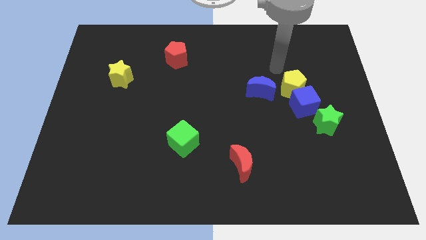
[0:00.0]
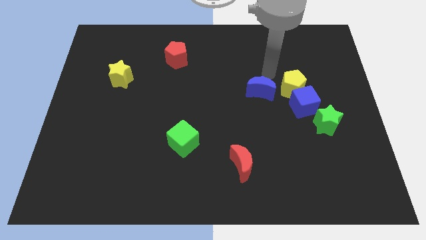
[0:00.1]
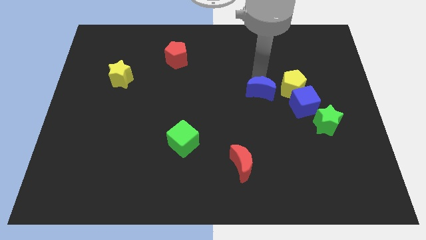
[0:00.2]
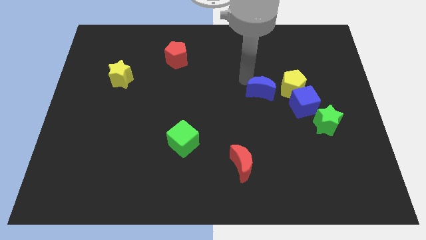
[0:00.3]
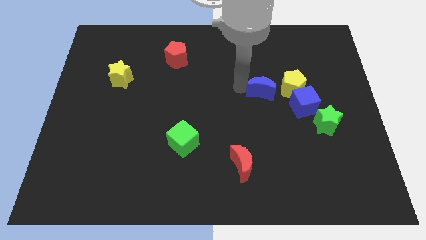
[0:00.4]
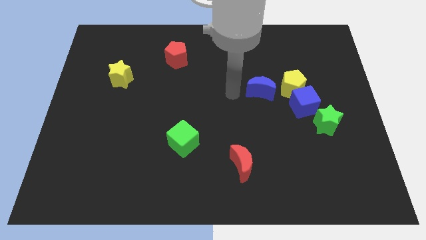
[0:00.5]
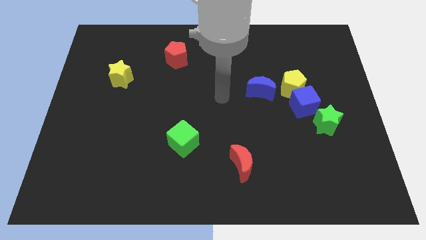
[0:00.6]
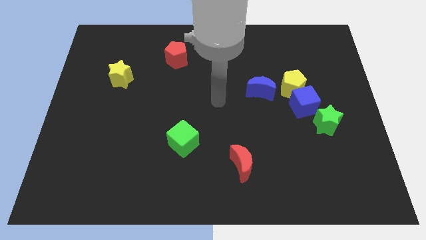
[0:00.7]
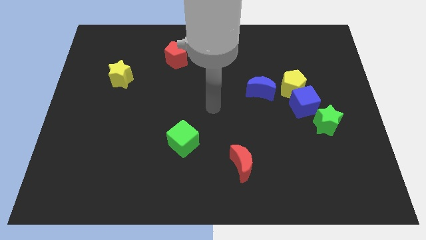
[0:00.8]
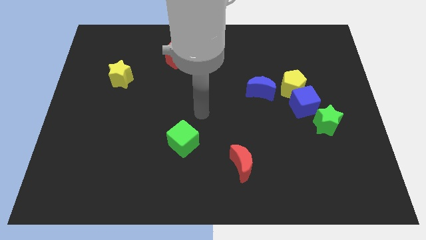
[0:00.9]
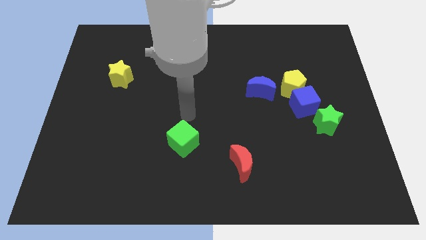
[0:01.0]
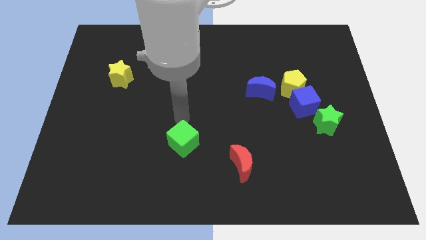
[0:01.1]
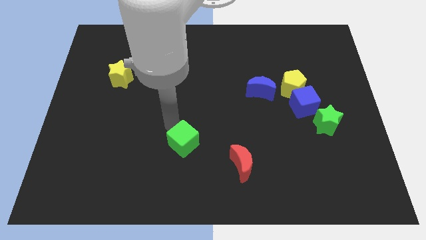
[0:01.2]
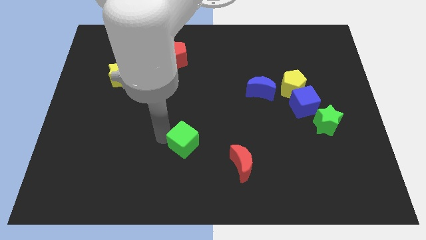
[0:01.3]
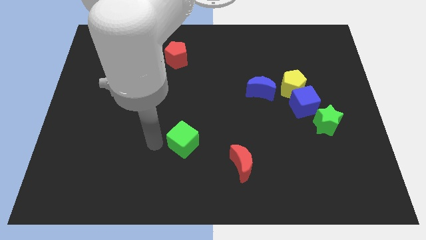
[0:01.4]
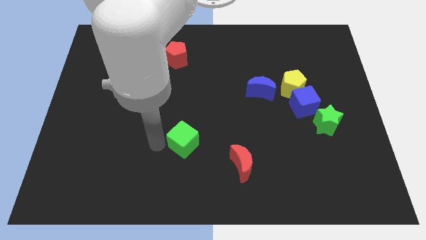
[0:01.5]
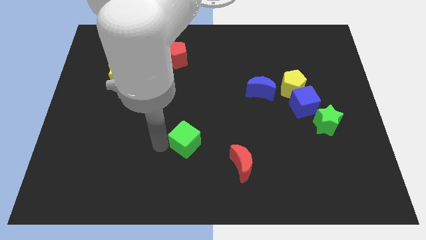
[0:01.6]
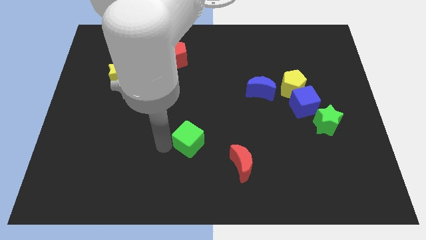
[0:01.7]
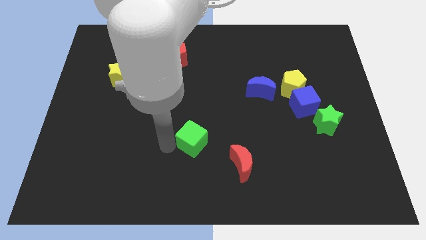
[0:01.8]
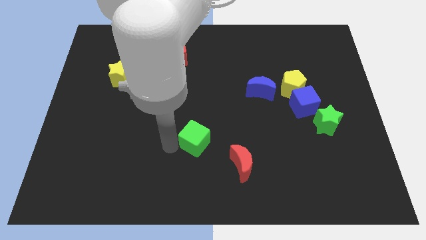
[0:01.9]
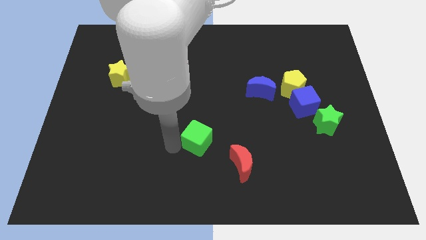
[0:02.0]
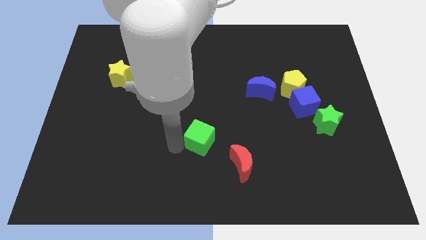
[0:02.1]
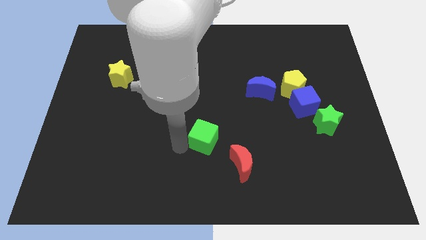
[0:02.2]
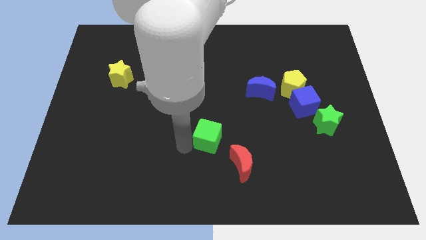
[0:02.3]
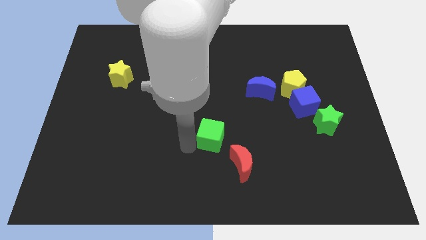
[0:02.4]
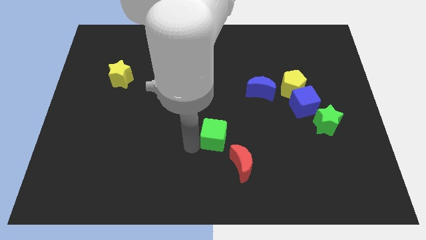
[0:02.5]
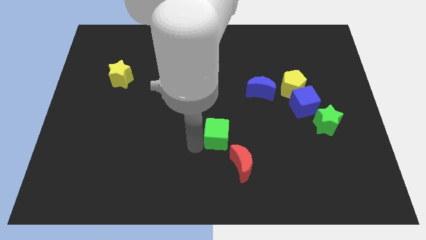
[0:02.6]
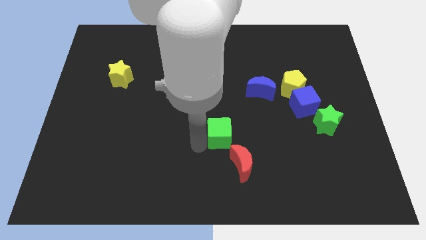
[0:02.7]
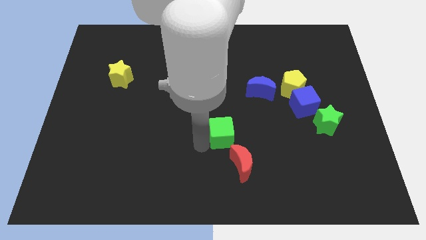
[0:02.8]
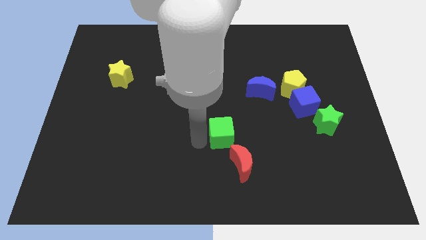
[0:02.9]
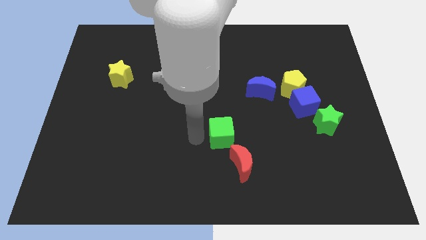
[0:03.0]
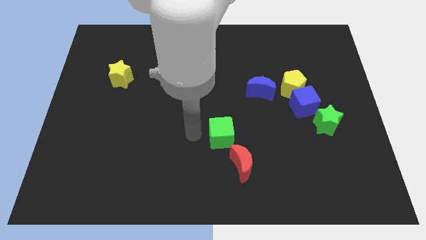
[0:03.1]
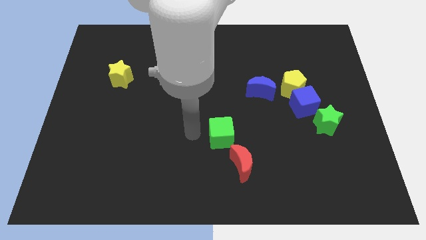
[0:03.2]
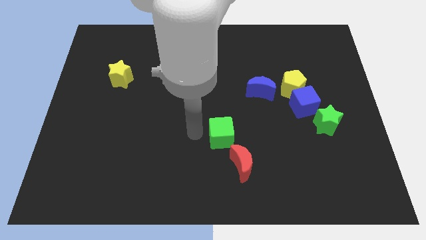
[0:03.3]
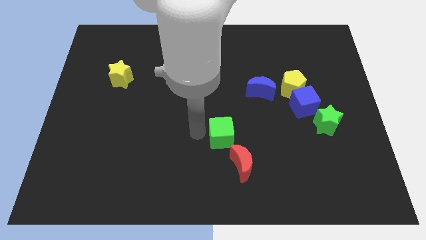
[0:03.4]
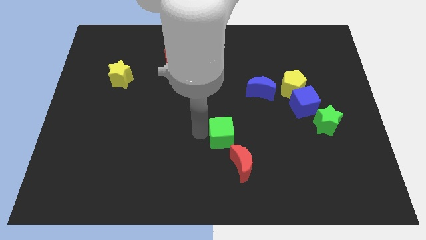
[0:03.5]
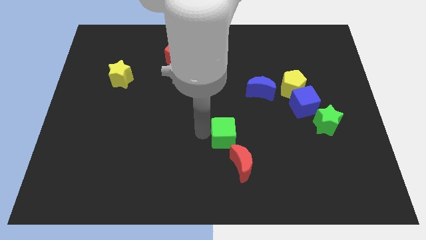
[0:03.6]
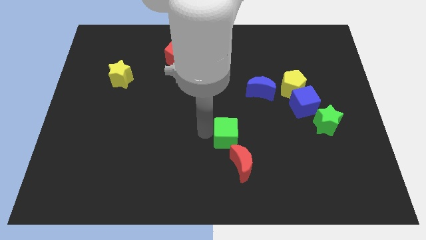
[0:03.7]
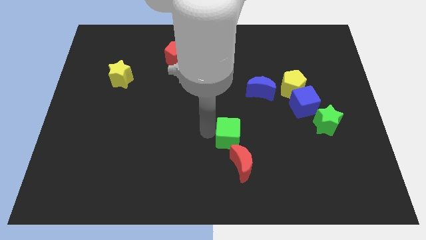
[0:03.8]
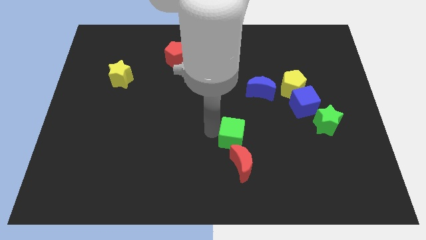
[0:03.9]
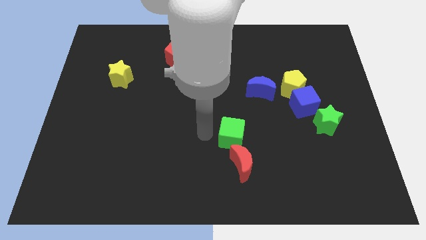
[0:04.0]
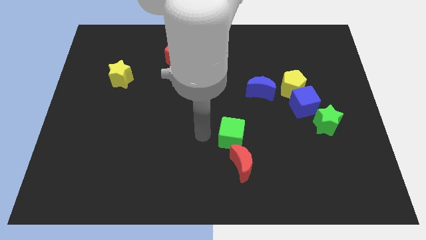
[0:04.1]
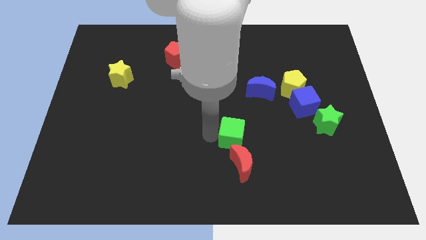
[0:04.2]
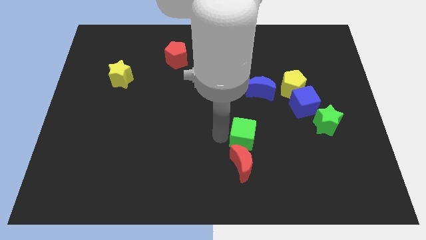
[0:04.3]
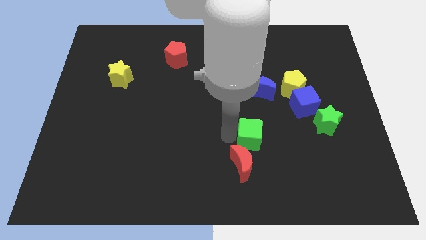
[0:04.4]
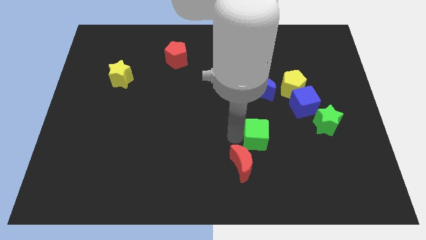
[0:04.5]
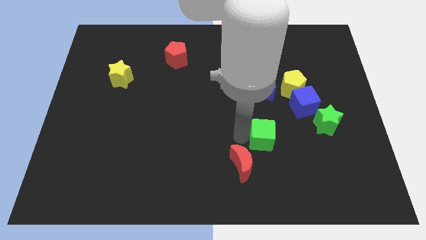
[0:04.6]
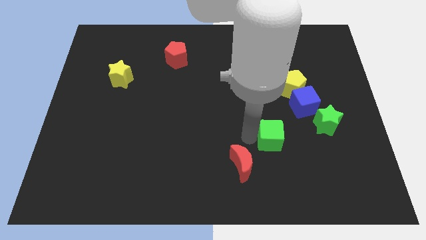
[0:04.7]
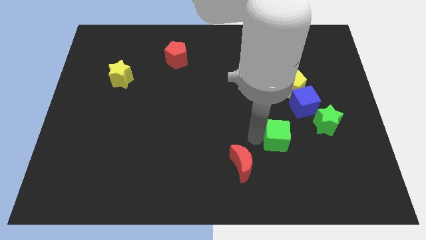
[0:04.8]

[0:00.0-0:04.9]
move the green cube right

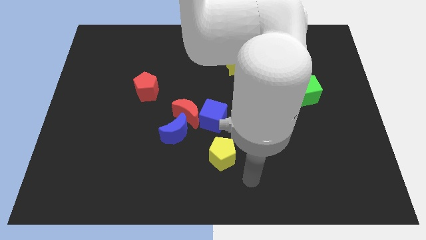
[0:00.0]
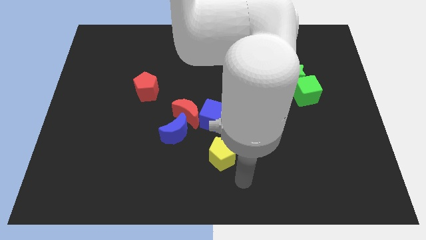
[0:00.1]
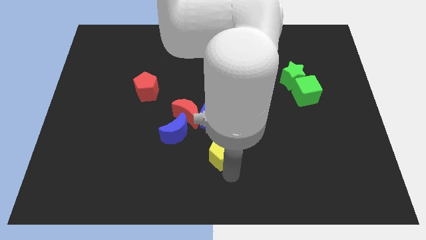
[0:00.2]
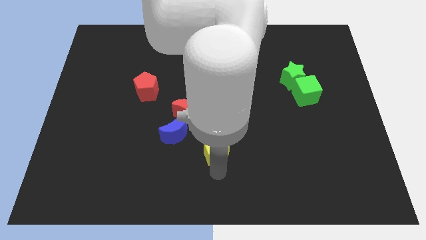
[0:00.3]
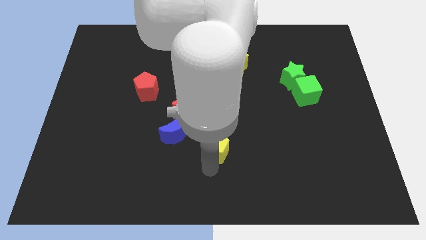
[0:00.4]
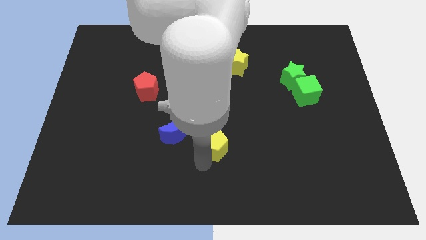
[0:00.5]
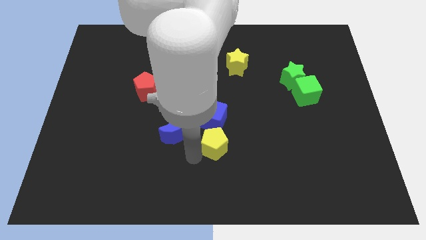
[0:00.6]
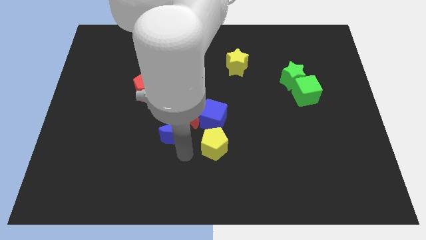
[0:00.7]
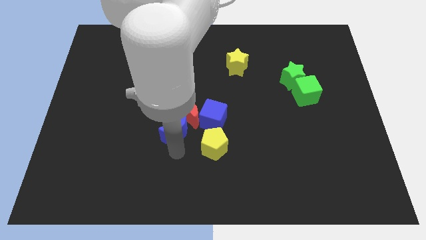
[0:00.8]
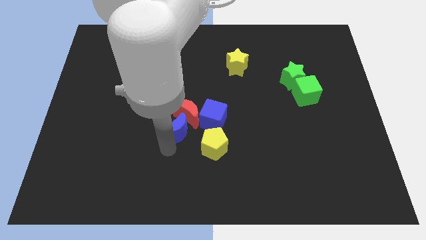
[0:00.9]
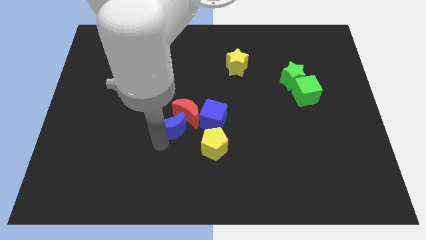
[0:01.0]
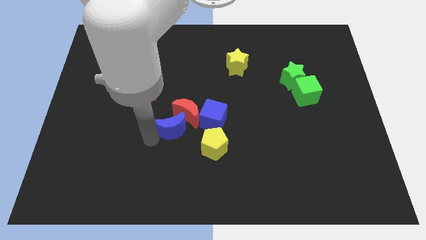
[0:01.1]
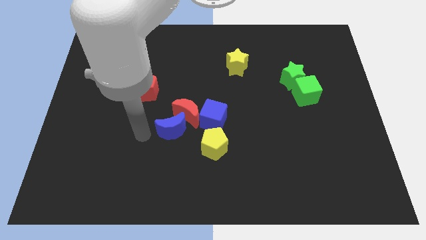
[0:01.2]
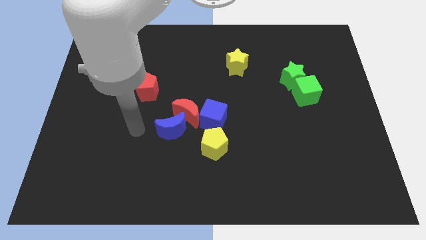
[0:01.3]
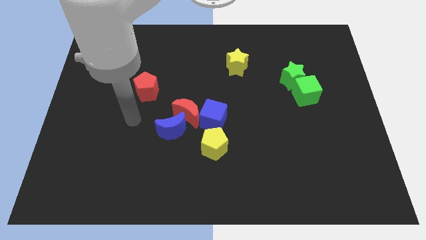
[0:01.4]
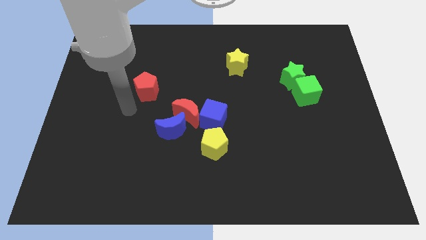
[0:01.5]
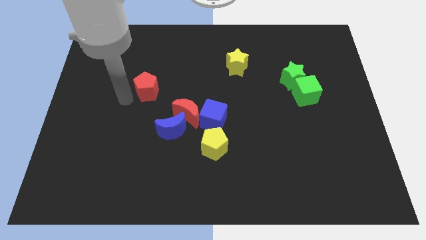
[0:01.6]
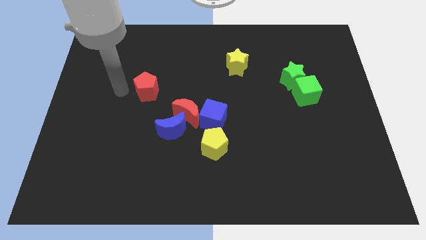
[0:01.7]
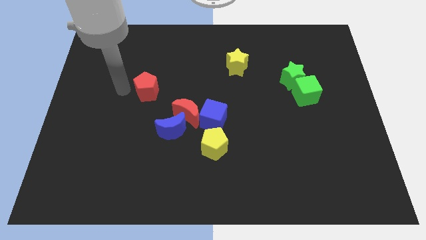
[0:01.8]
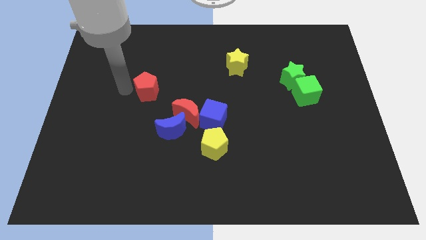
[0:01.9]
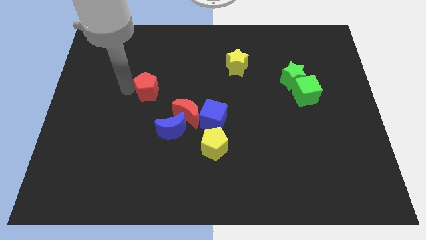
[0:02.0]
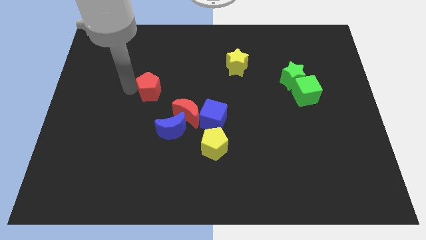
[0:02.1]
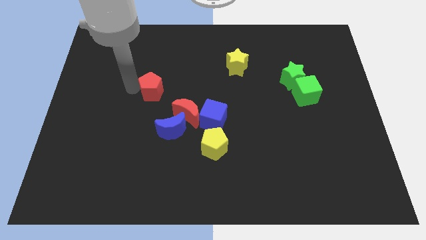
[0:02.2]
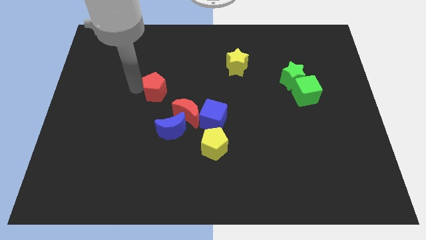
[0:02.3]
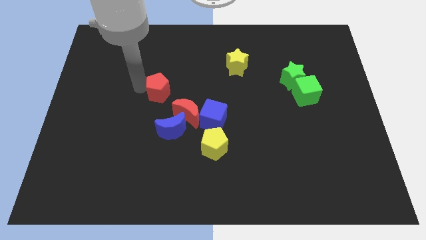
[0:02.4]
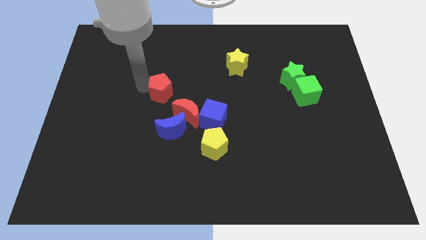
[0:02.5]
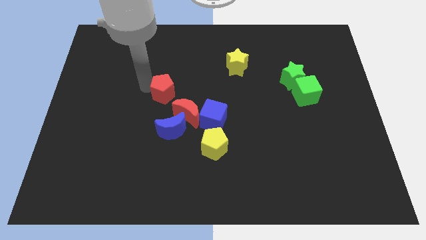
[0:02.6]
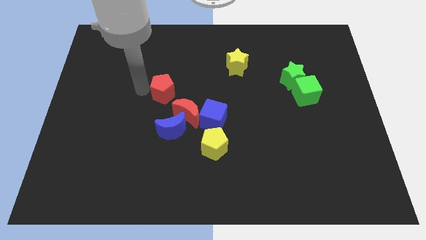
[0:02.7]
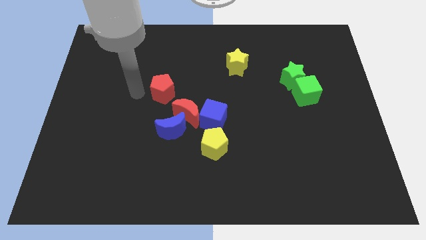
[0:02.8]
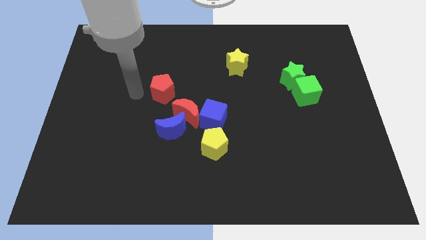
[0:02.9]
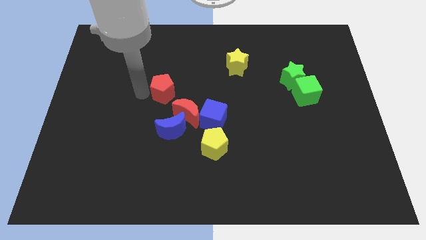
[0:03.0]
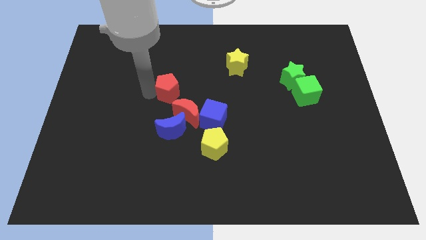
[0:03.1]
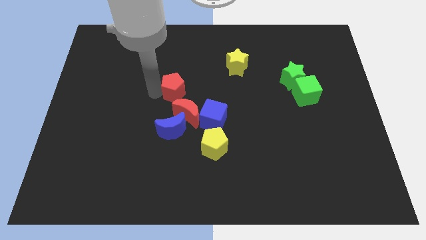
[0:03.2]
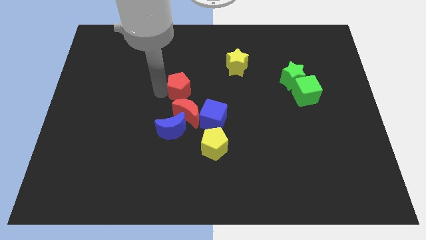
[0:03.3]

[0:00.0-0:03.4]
slightly slide the red pentagon right
